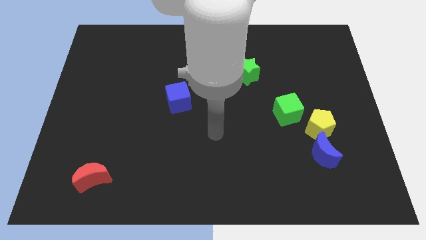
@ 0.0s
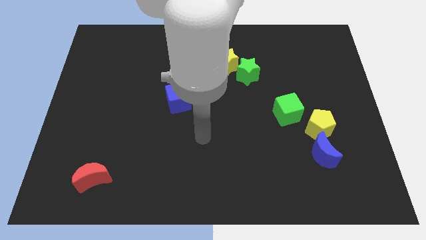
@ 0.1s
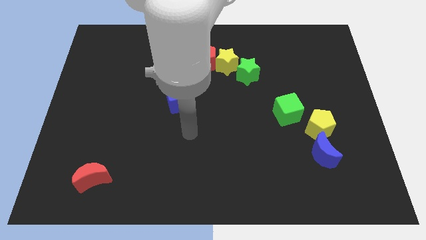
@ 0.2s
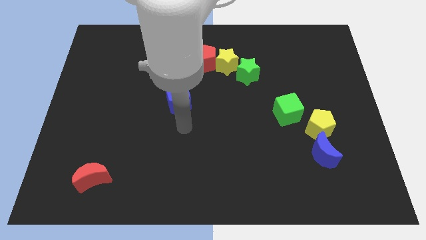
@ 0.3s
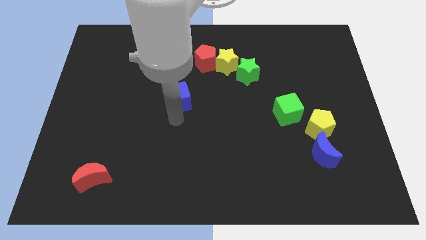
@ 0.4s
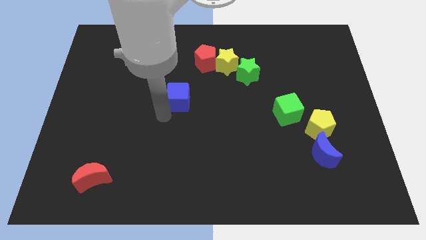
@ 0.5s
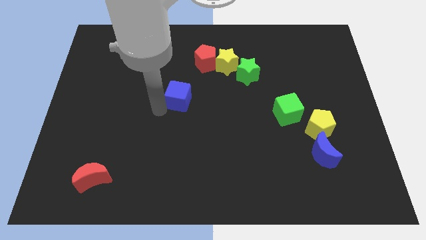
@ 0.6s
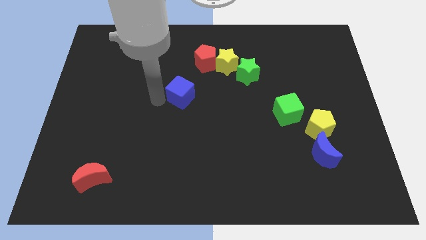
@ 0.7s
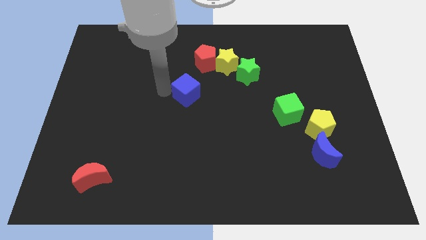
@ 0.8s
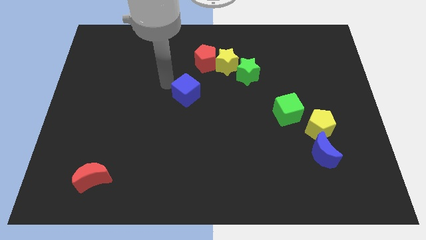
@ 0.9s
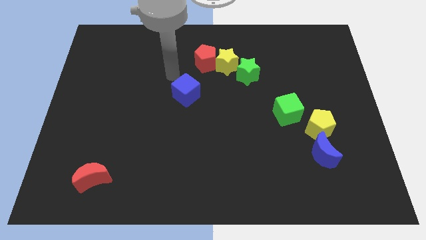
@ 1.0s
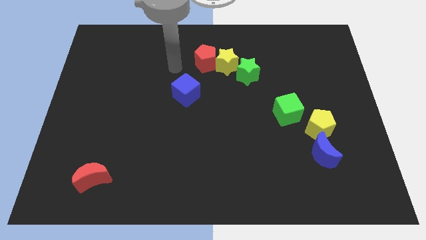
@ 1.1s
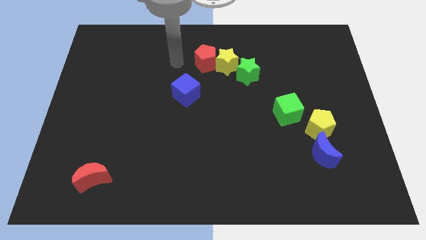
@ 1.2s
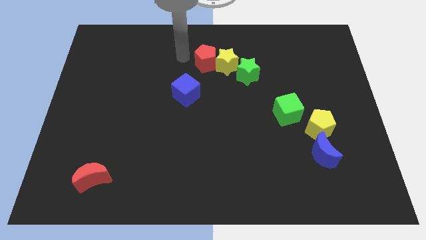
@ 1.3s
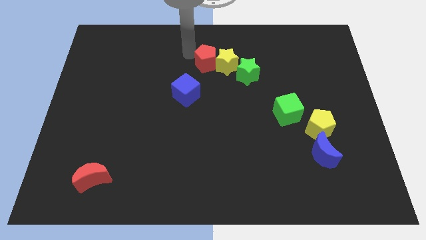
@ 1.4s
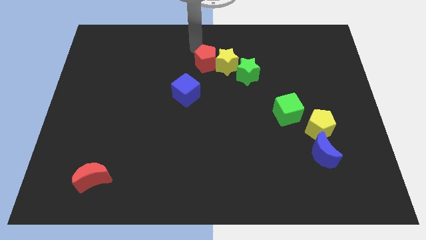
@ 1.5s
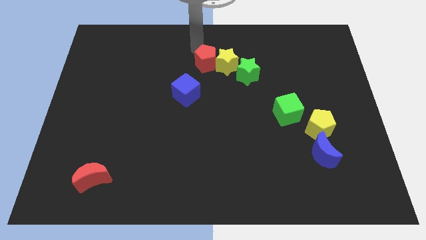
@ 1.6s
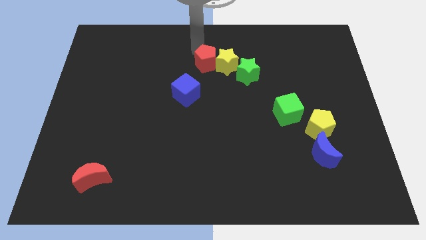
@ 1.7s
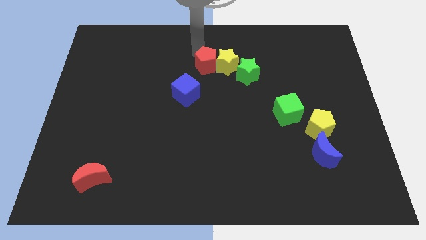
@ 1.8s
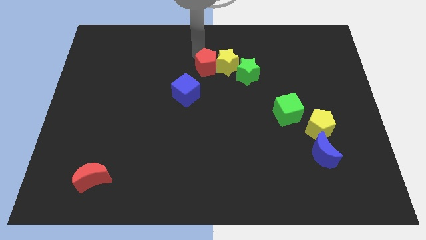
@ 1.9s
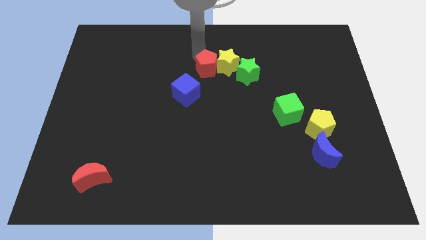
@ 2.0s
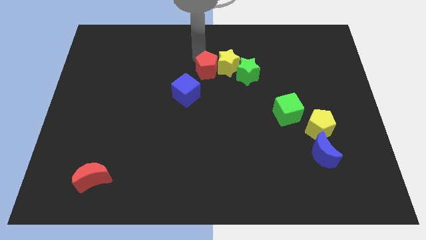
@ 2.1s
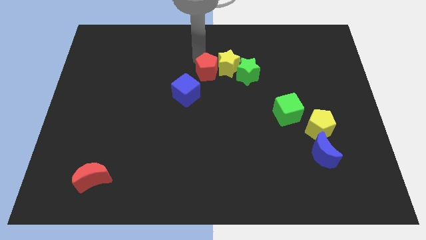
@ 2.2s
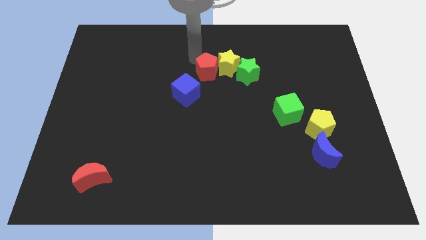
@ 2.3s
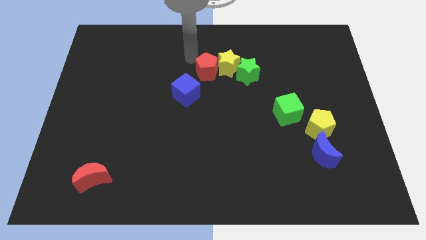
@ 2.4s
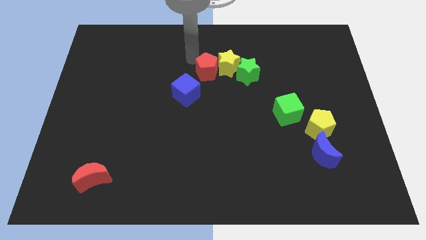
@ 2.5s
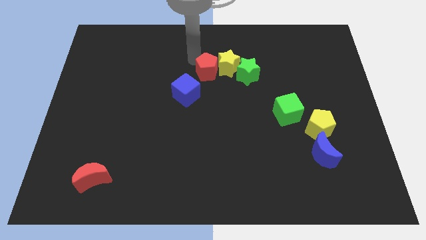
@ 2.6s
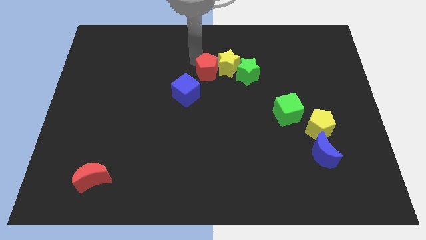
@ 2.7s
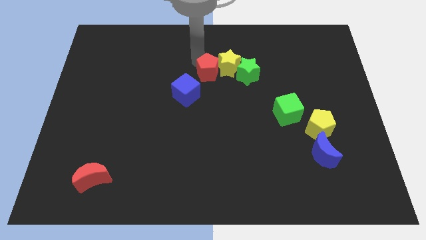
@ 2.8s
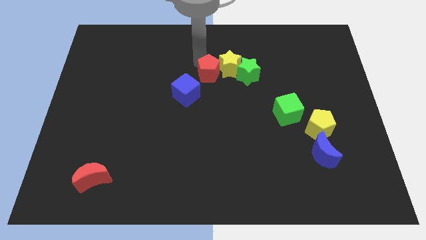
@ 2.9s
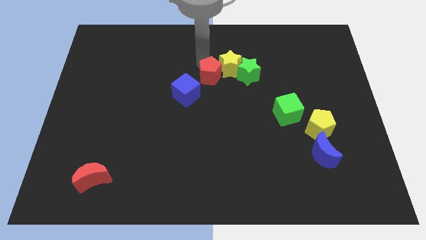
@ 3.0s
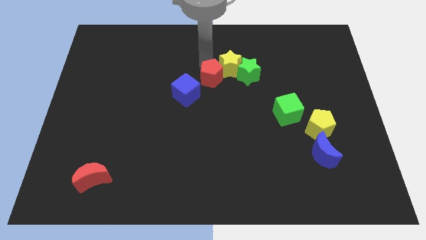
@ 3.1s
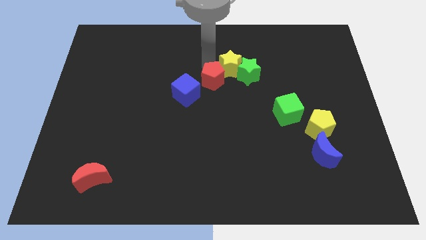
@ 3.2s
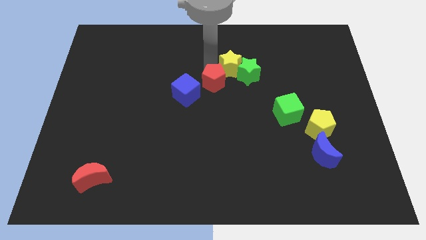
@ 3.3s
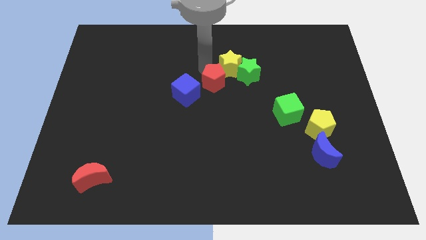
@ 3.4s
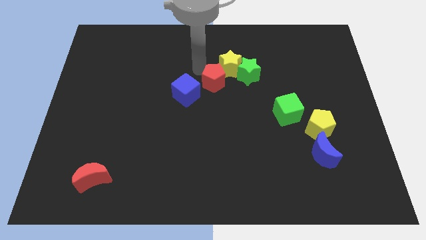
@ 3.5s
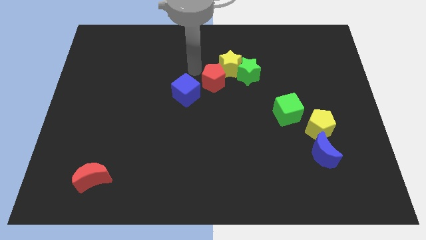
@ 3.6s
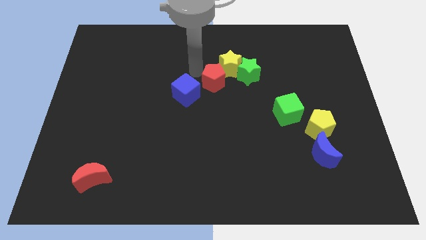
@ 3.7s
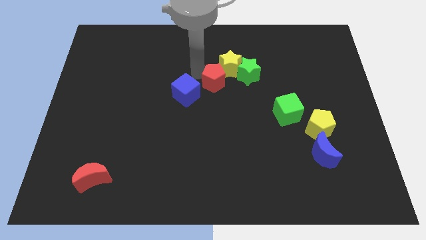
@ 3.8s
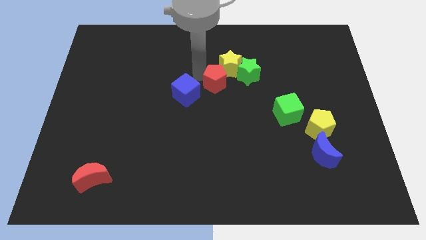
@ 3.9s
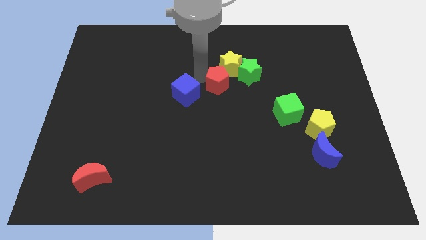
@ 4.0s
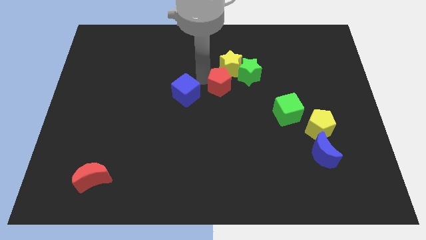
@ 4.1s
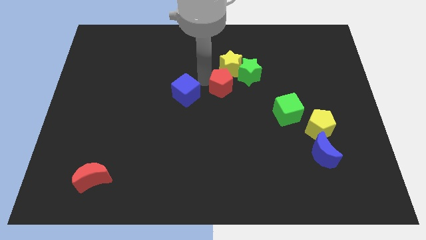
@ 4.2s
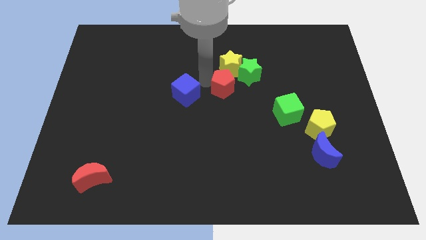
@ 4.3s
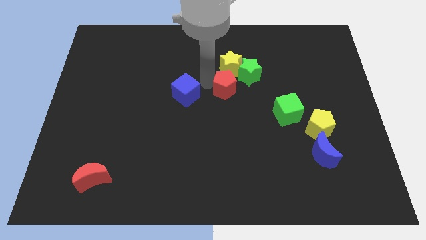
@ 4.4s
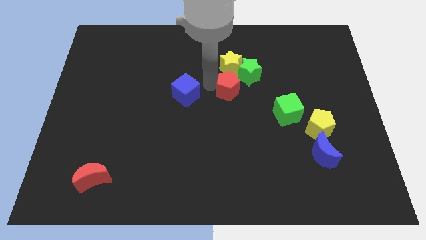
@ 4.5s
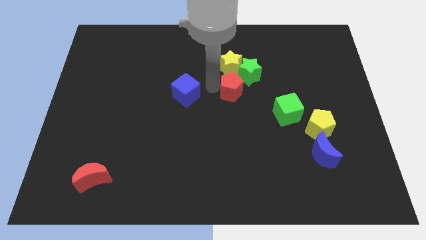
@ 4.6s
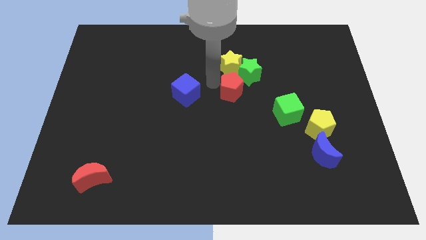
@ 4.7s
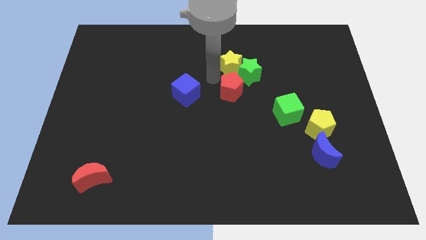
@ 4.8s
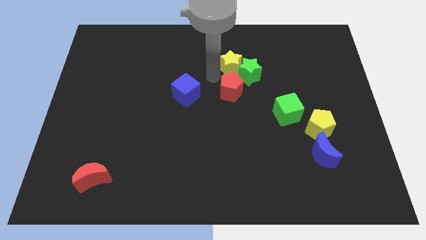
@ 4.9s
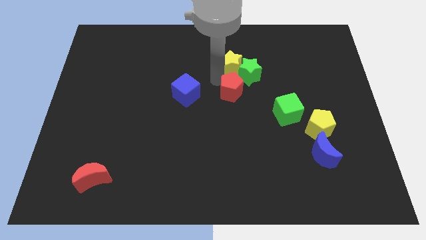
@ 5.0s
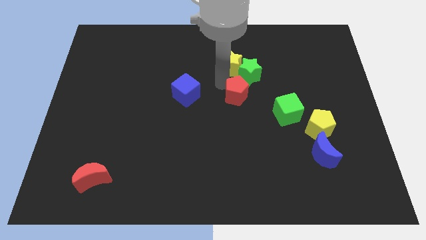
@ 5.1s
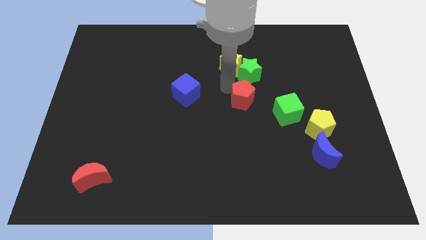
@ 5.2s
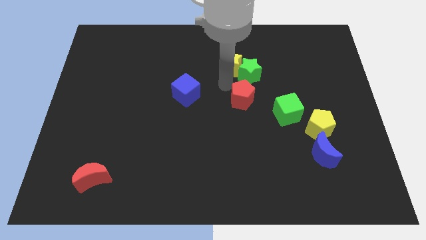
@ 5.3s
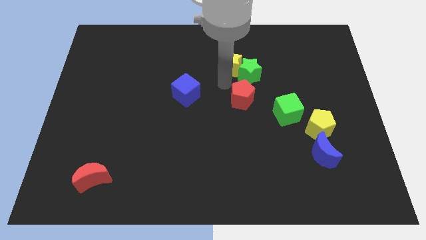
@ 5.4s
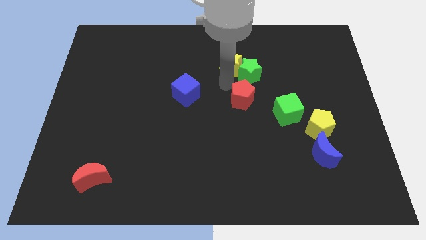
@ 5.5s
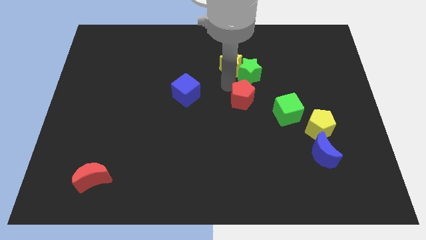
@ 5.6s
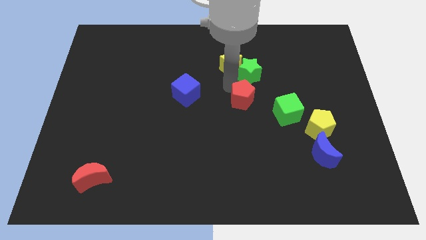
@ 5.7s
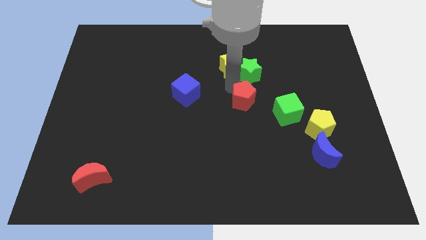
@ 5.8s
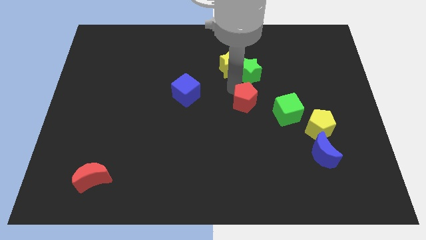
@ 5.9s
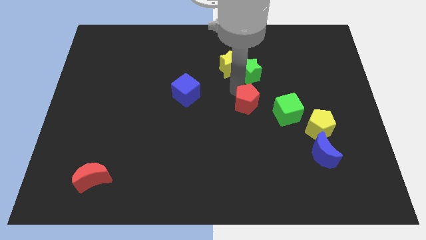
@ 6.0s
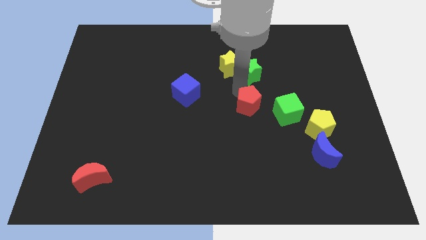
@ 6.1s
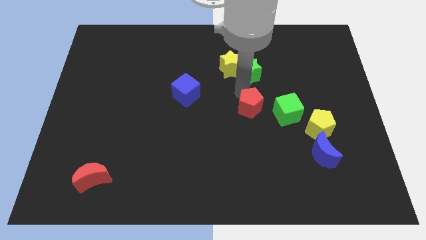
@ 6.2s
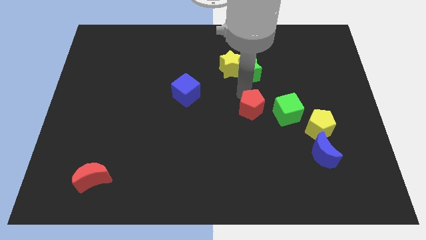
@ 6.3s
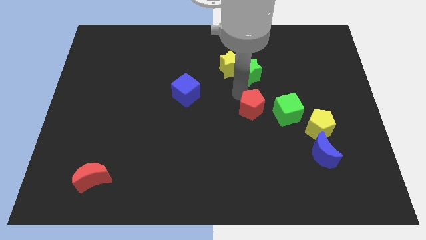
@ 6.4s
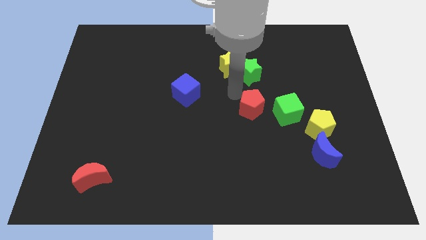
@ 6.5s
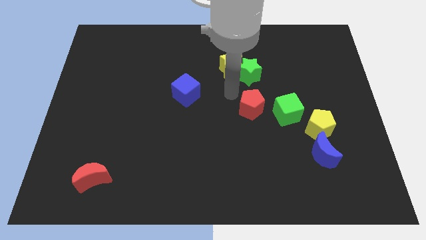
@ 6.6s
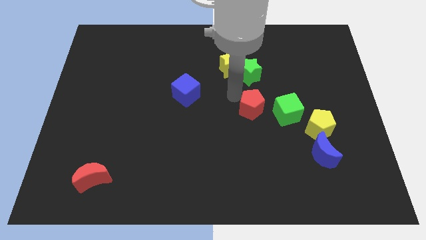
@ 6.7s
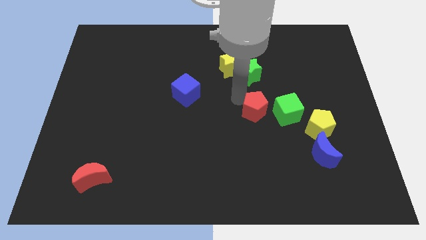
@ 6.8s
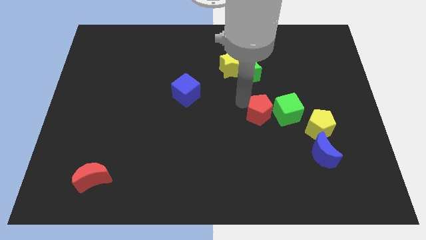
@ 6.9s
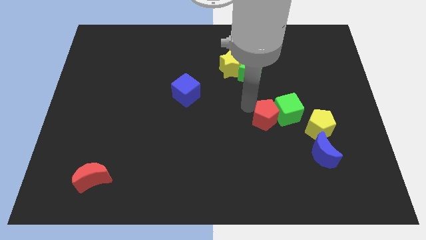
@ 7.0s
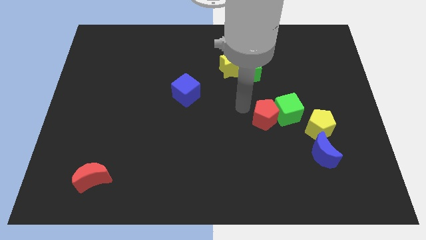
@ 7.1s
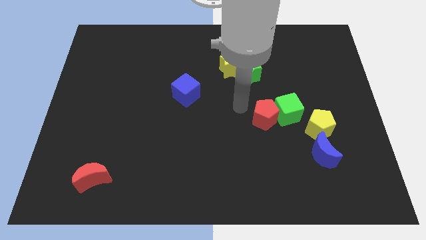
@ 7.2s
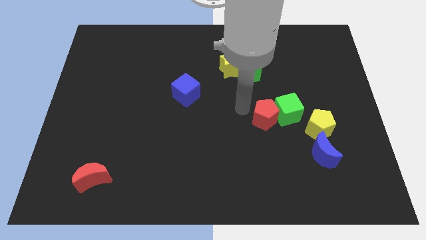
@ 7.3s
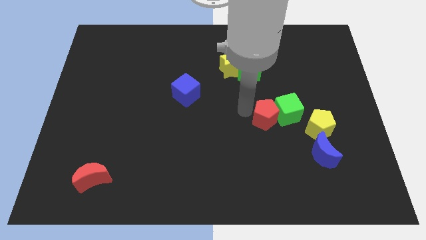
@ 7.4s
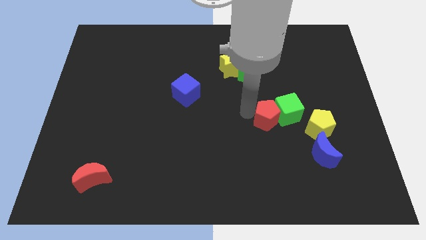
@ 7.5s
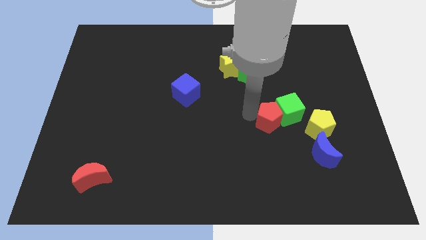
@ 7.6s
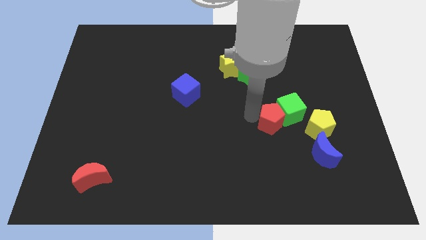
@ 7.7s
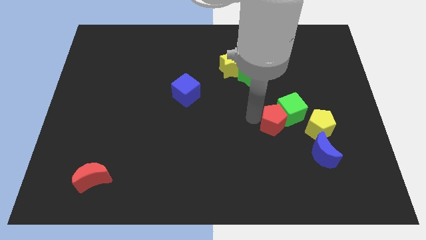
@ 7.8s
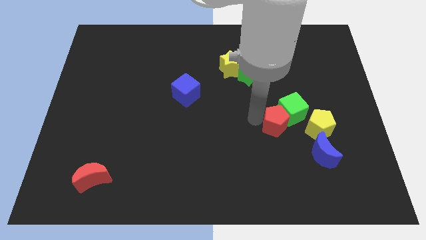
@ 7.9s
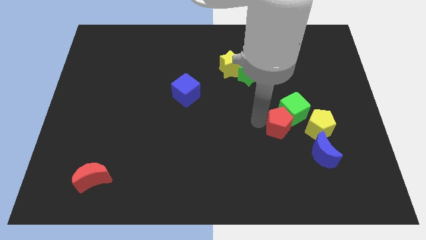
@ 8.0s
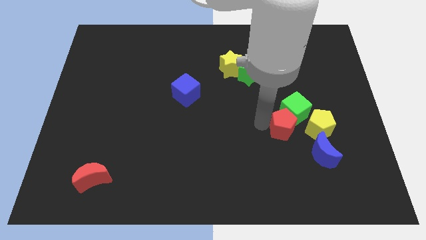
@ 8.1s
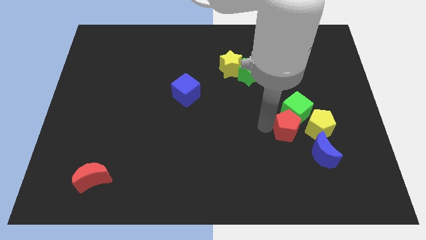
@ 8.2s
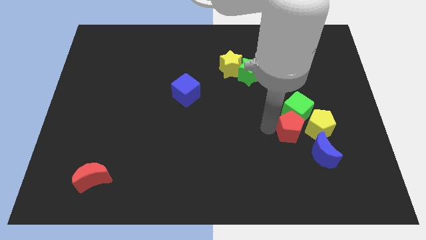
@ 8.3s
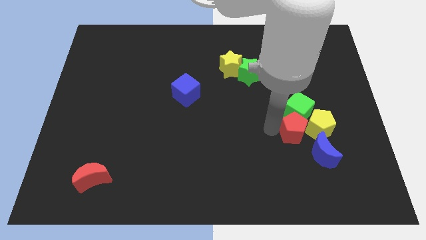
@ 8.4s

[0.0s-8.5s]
move the red pentagon close to the yellow pentagon
